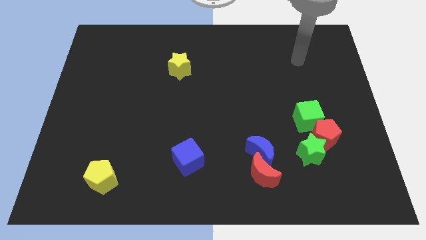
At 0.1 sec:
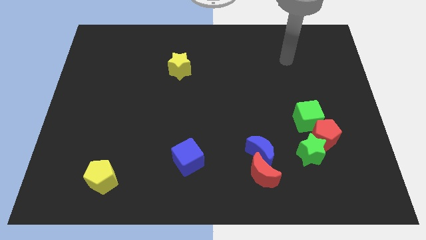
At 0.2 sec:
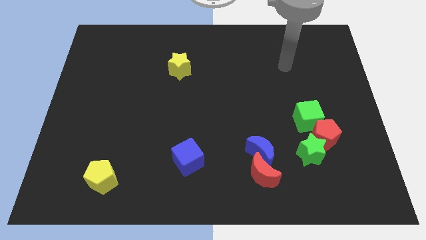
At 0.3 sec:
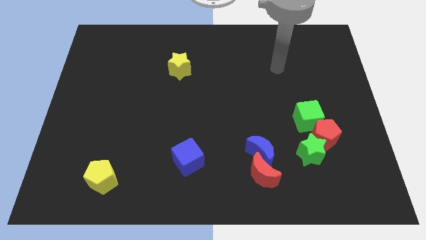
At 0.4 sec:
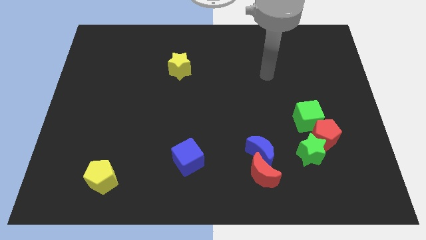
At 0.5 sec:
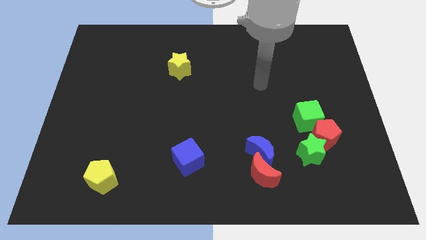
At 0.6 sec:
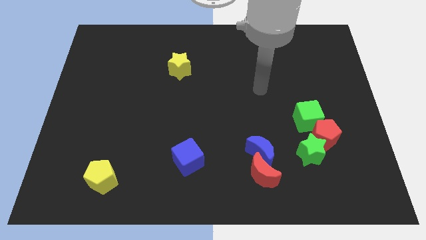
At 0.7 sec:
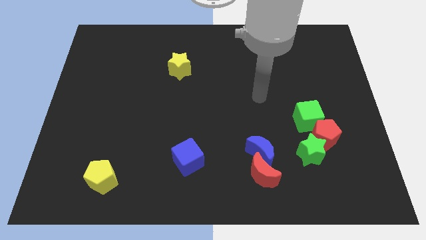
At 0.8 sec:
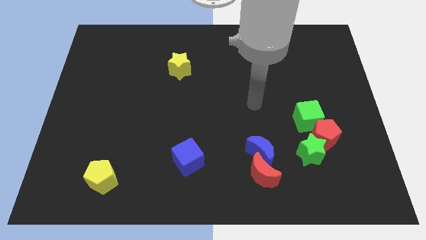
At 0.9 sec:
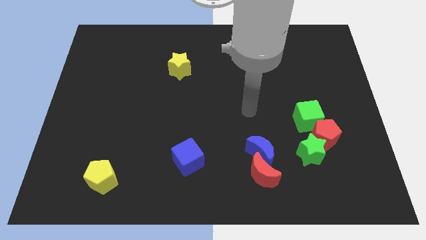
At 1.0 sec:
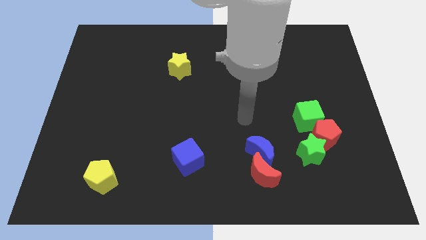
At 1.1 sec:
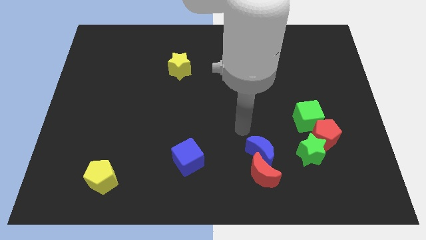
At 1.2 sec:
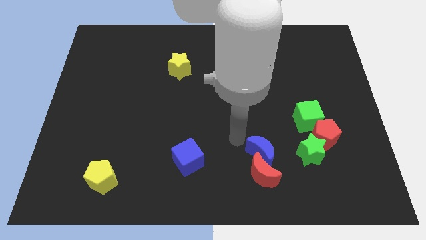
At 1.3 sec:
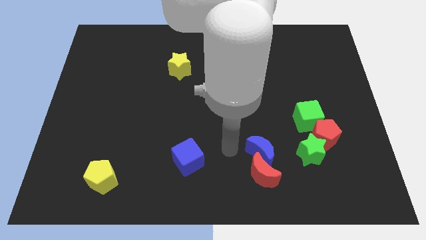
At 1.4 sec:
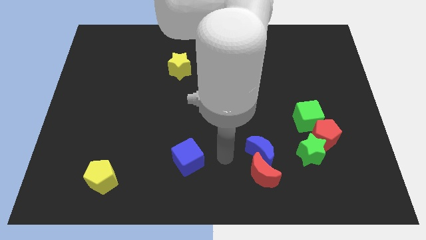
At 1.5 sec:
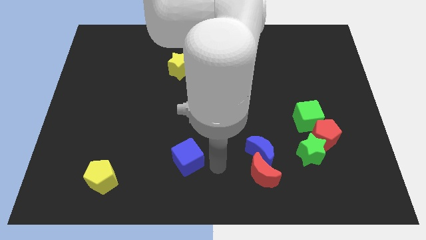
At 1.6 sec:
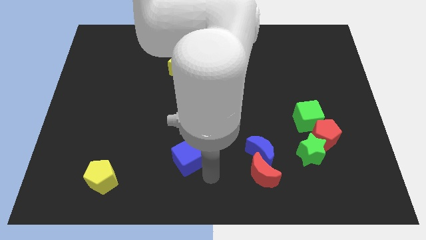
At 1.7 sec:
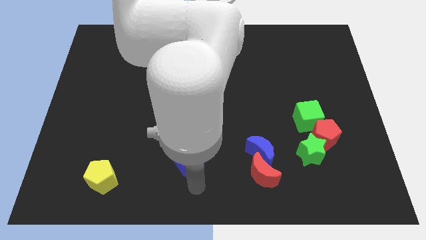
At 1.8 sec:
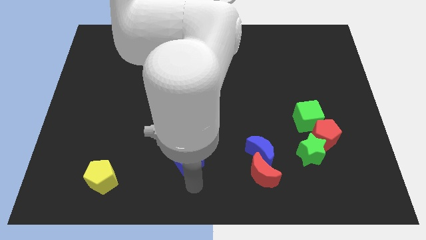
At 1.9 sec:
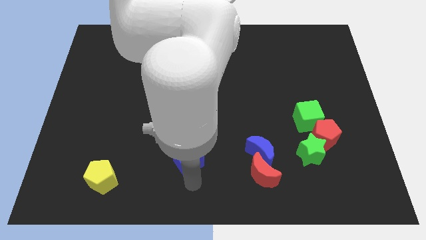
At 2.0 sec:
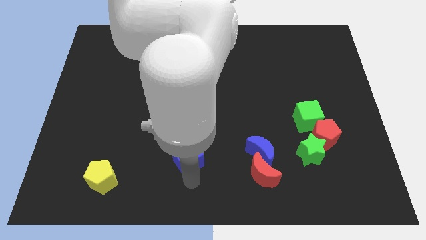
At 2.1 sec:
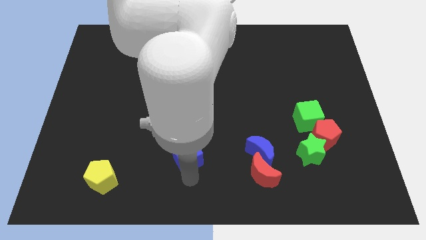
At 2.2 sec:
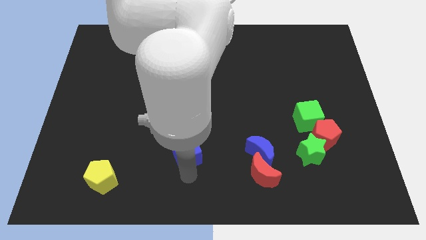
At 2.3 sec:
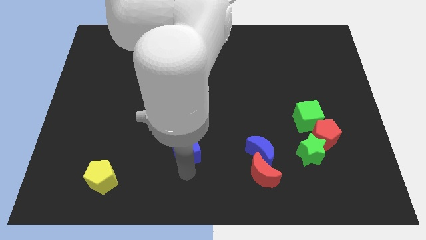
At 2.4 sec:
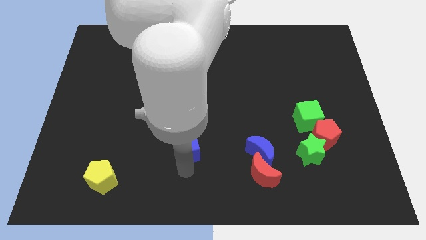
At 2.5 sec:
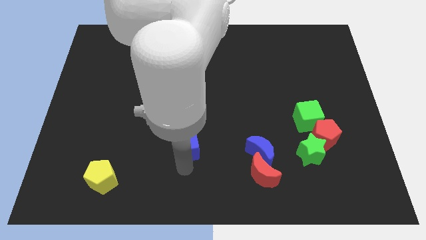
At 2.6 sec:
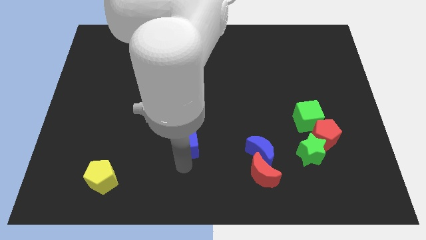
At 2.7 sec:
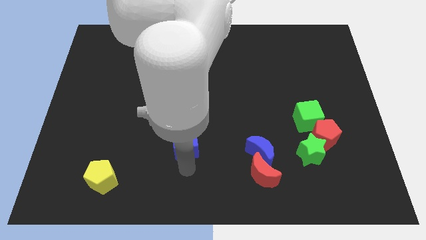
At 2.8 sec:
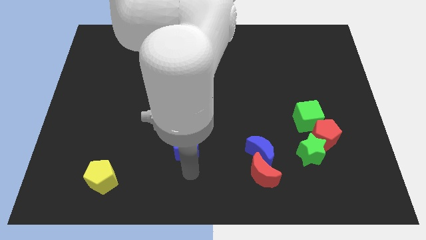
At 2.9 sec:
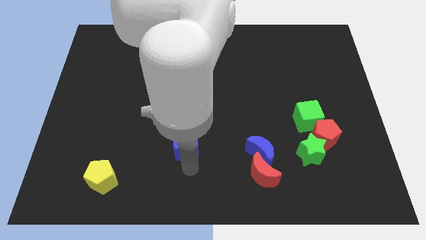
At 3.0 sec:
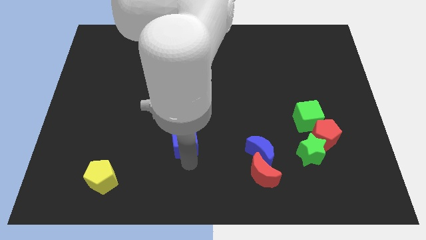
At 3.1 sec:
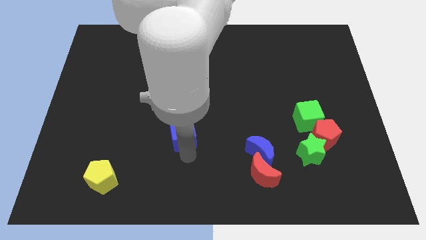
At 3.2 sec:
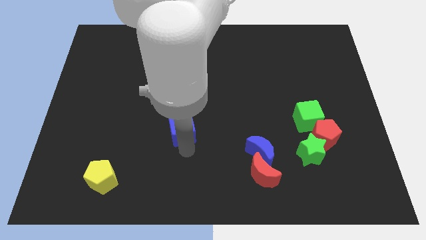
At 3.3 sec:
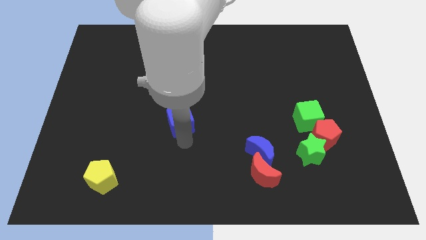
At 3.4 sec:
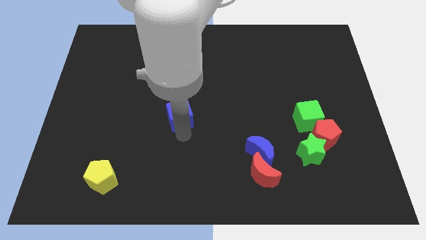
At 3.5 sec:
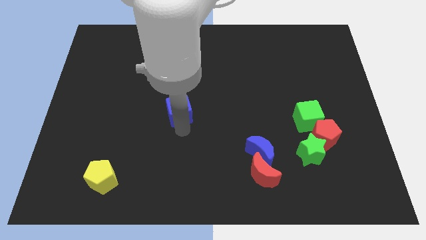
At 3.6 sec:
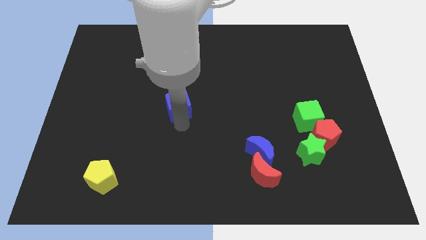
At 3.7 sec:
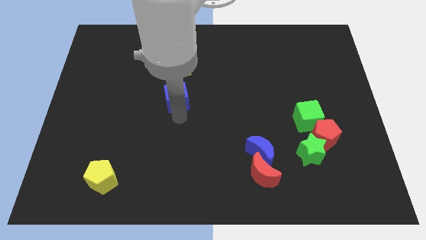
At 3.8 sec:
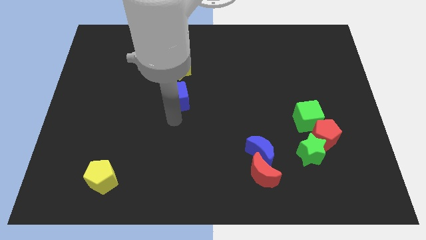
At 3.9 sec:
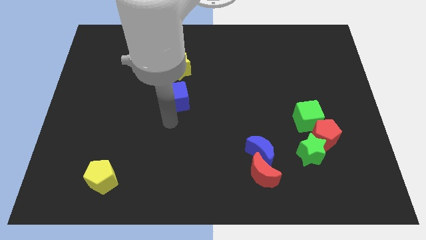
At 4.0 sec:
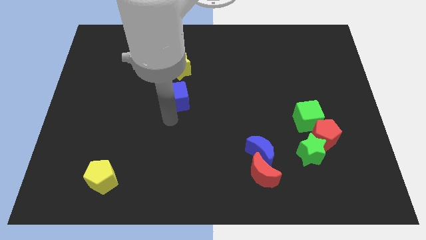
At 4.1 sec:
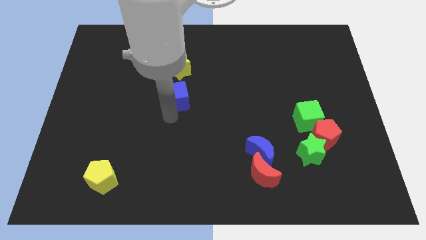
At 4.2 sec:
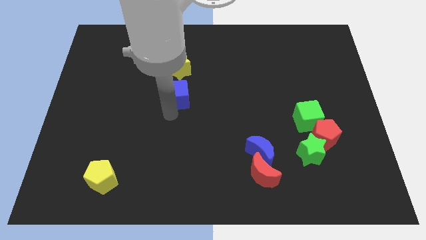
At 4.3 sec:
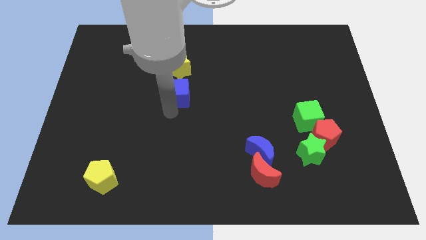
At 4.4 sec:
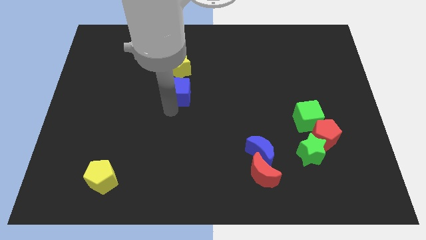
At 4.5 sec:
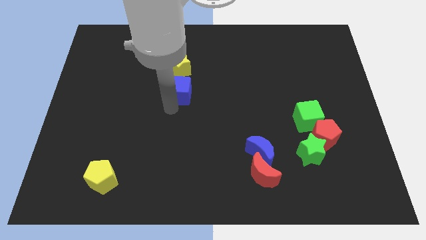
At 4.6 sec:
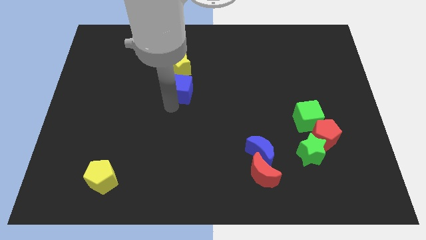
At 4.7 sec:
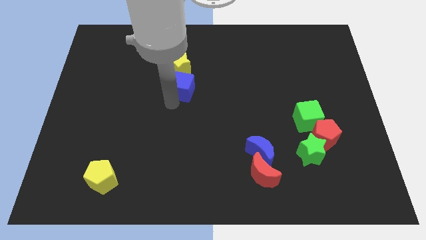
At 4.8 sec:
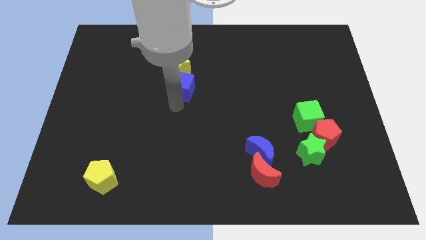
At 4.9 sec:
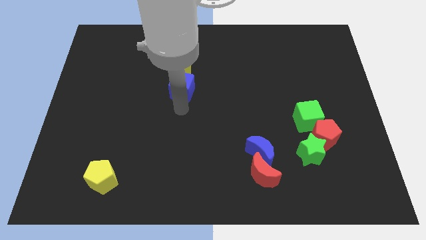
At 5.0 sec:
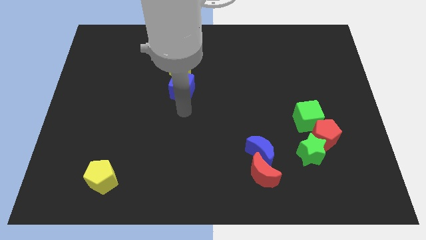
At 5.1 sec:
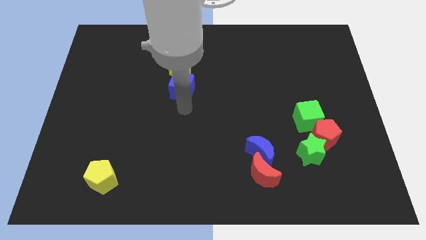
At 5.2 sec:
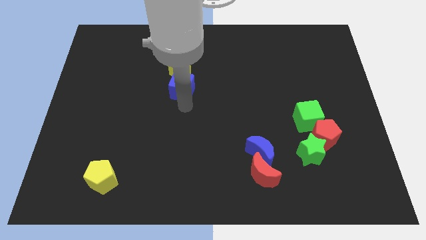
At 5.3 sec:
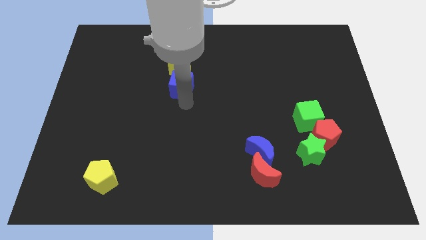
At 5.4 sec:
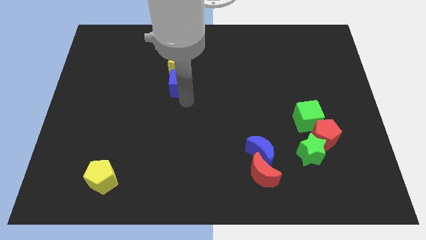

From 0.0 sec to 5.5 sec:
push the blue cube close to the yellow star

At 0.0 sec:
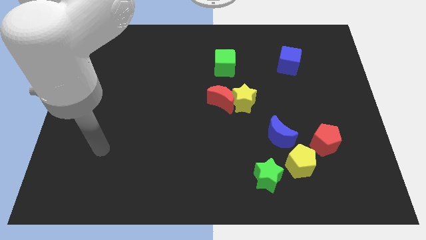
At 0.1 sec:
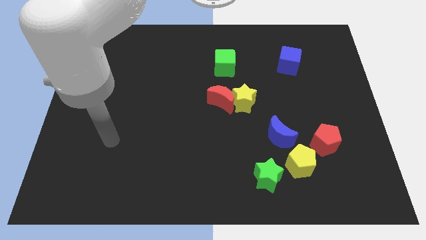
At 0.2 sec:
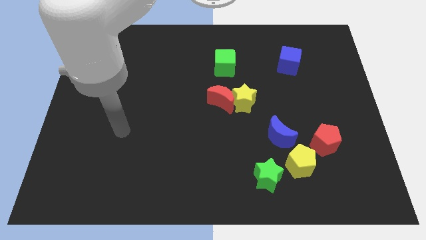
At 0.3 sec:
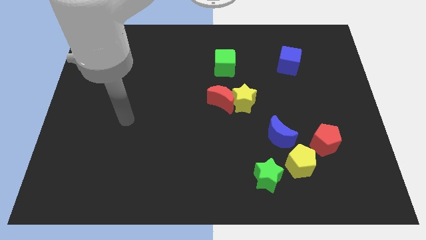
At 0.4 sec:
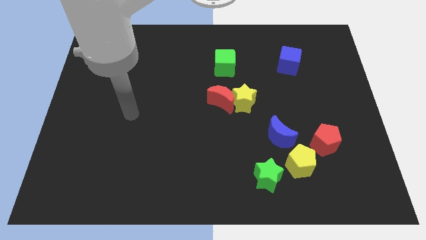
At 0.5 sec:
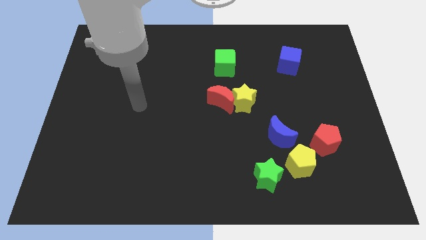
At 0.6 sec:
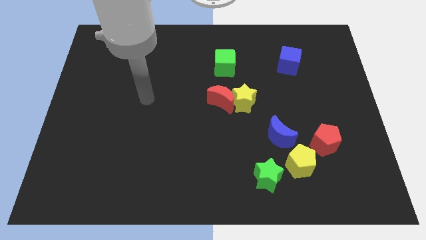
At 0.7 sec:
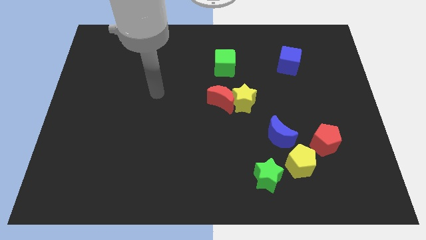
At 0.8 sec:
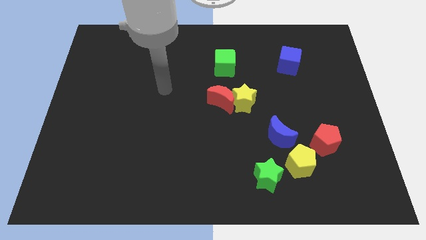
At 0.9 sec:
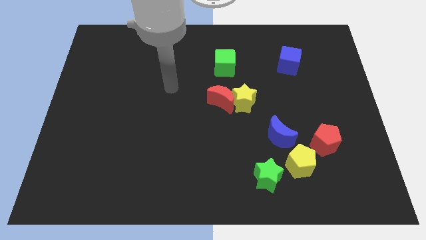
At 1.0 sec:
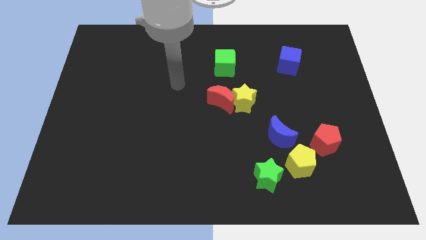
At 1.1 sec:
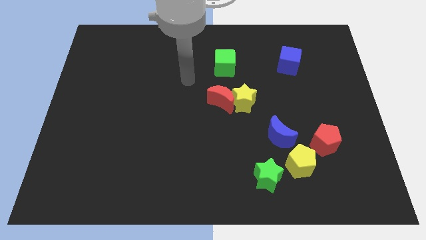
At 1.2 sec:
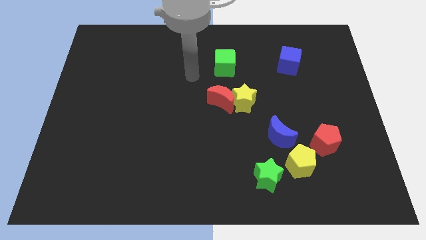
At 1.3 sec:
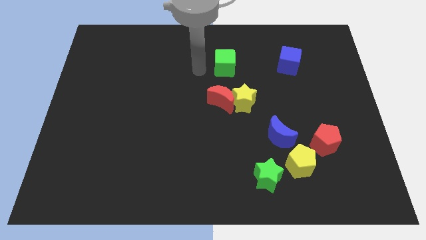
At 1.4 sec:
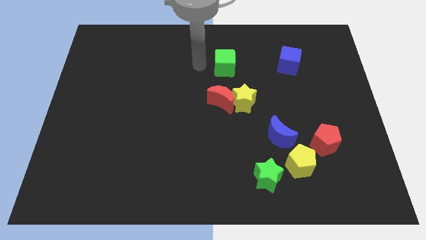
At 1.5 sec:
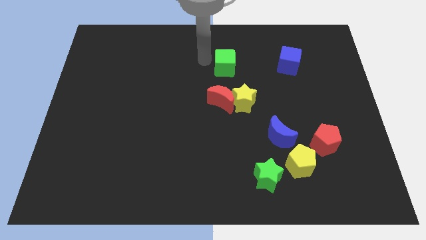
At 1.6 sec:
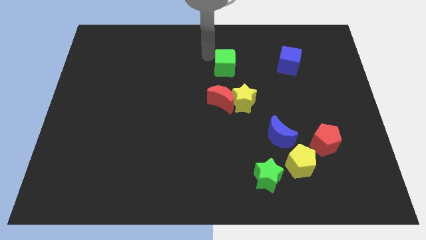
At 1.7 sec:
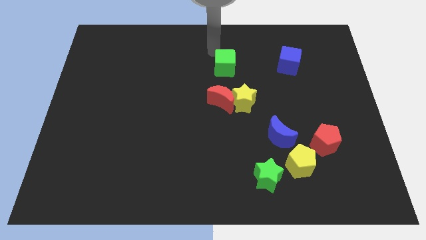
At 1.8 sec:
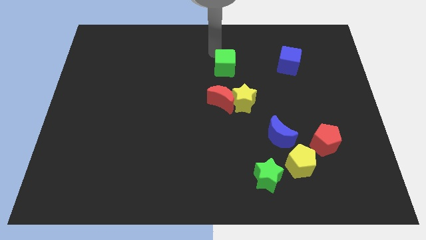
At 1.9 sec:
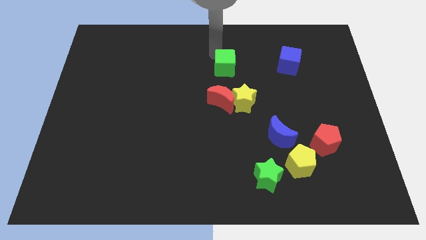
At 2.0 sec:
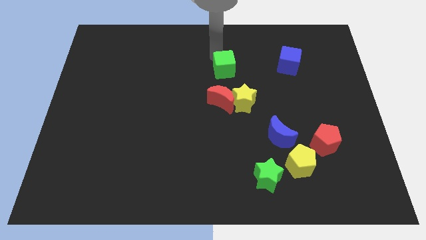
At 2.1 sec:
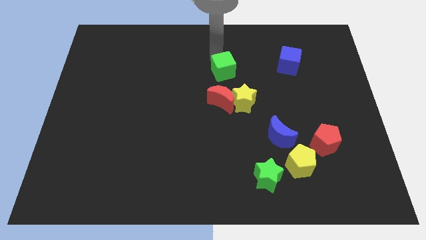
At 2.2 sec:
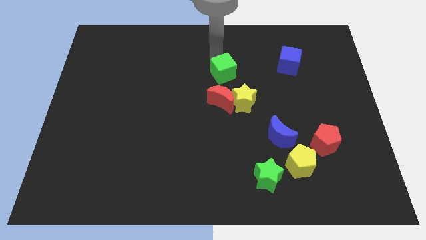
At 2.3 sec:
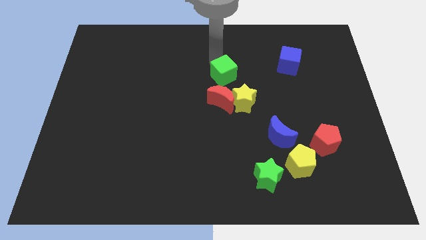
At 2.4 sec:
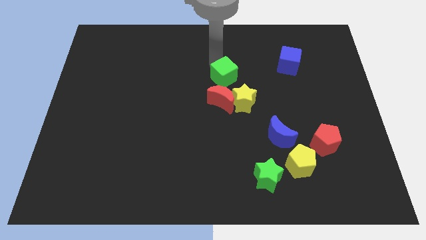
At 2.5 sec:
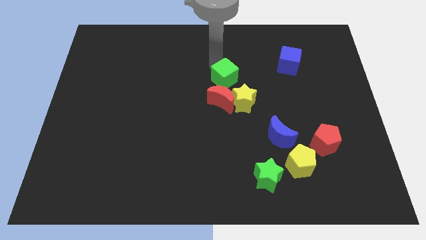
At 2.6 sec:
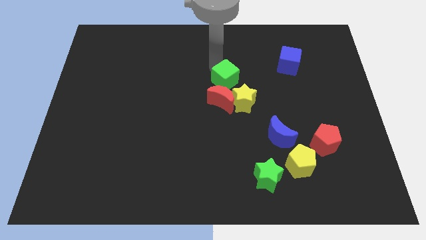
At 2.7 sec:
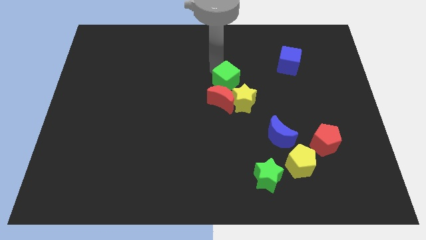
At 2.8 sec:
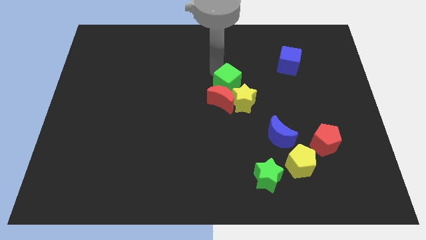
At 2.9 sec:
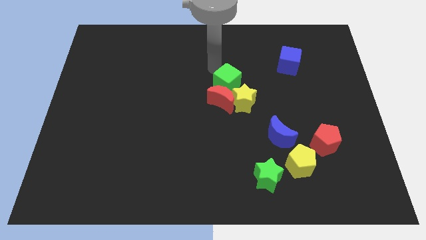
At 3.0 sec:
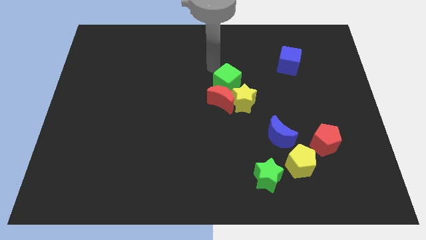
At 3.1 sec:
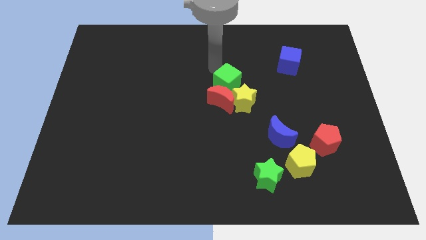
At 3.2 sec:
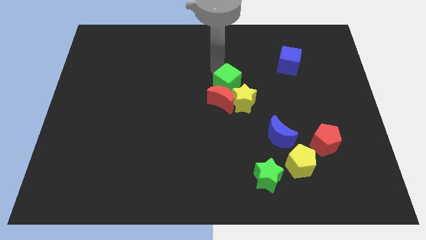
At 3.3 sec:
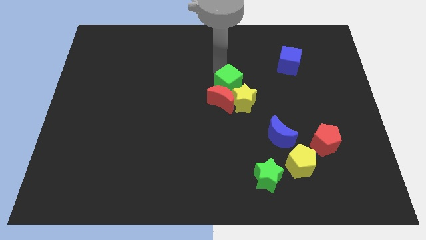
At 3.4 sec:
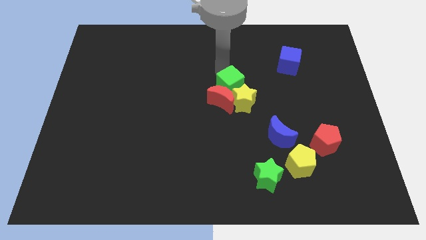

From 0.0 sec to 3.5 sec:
push the green cube towards the yellow star
